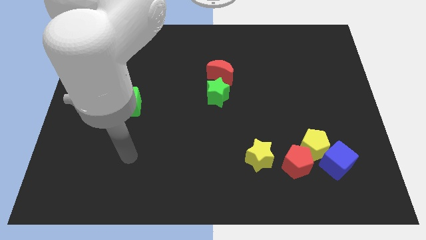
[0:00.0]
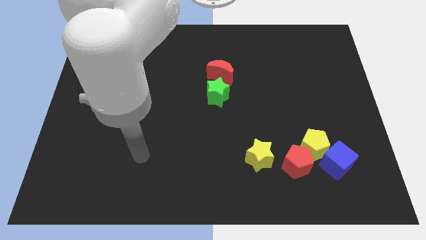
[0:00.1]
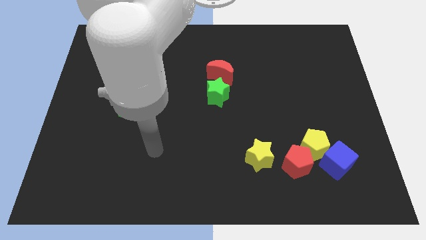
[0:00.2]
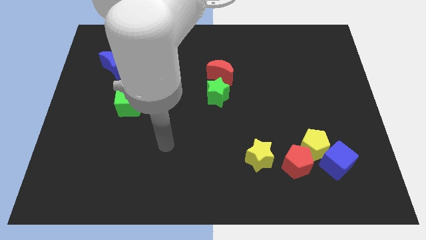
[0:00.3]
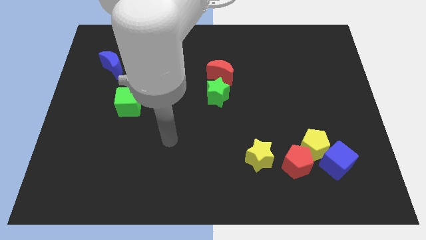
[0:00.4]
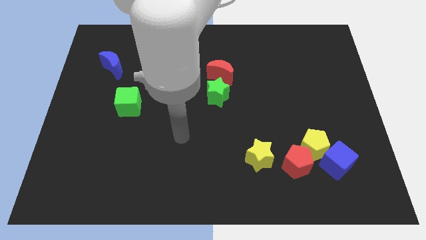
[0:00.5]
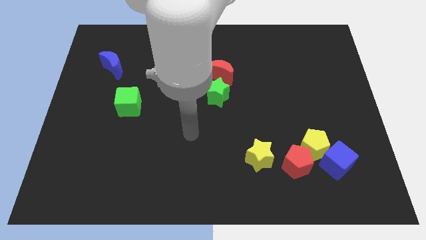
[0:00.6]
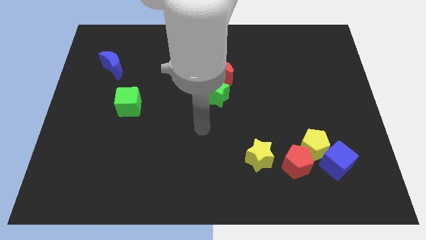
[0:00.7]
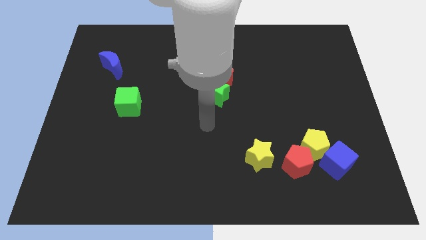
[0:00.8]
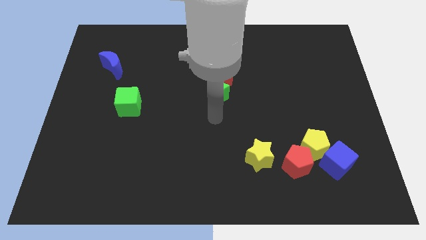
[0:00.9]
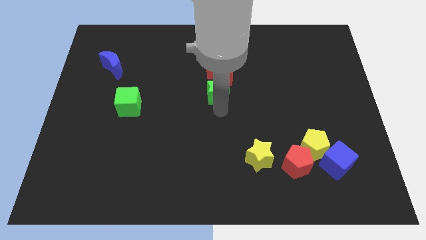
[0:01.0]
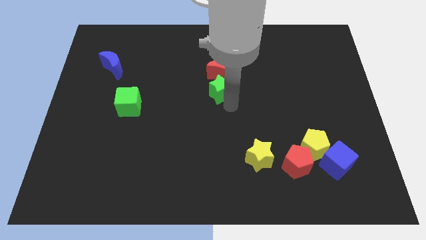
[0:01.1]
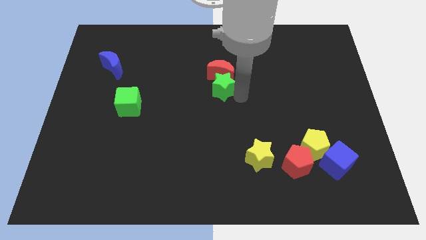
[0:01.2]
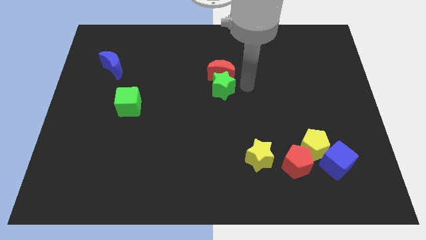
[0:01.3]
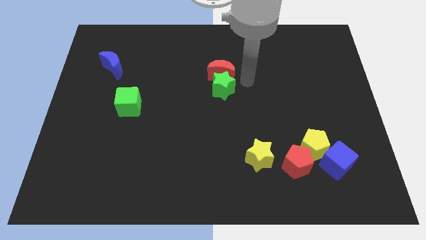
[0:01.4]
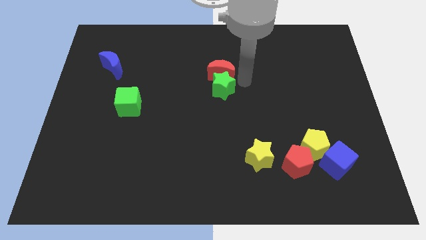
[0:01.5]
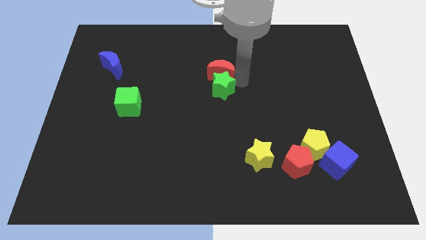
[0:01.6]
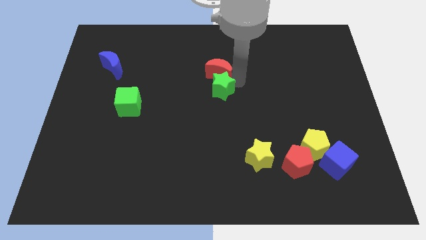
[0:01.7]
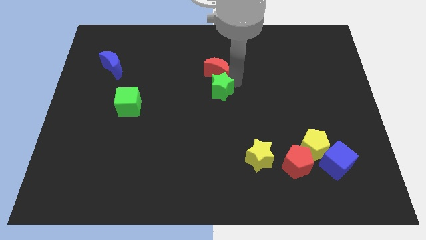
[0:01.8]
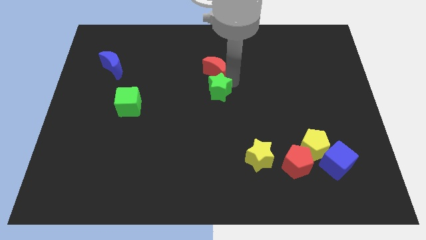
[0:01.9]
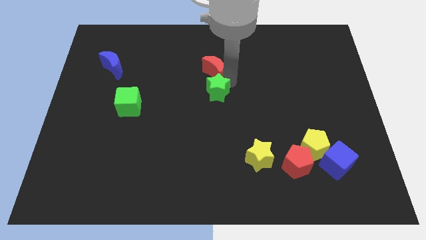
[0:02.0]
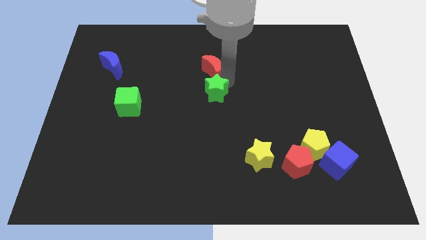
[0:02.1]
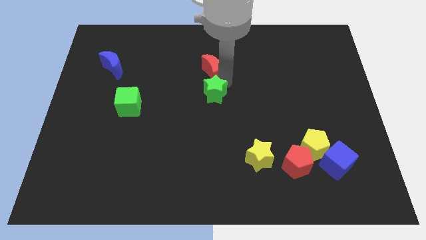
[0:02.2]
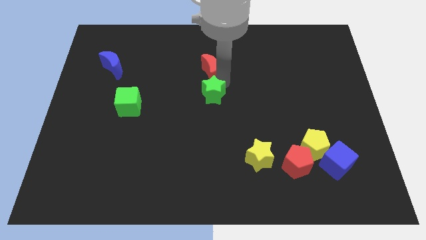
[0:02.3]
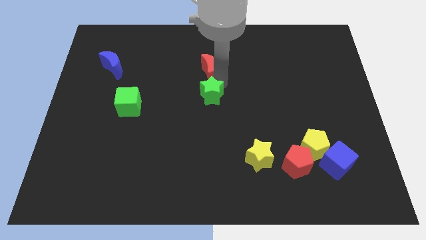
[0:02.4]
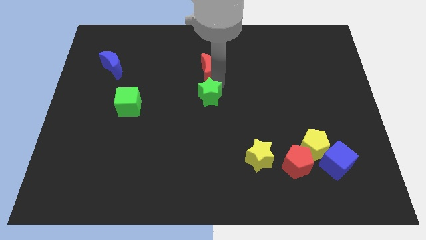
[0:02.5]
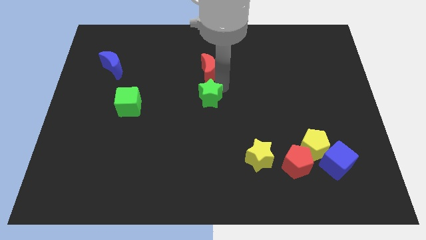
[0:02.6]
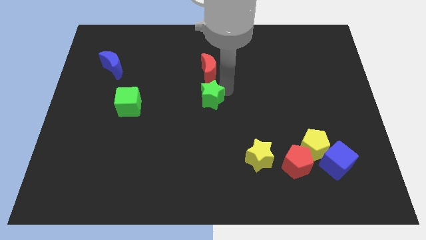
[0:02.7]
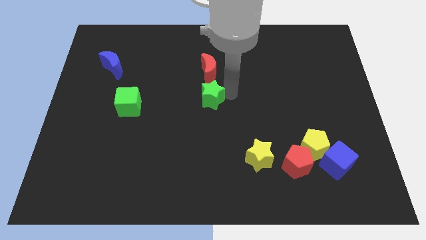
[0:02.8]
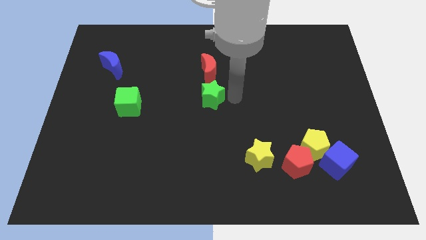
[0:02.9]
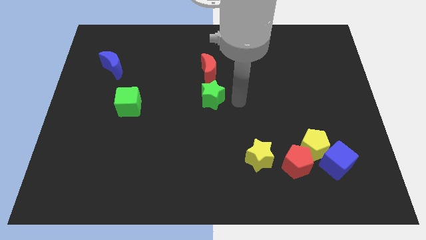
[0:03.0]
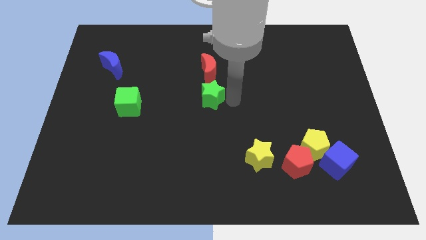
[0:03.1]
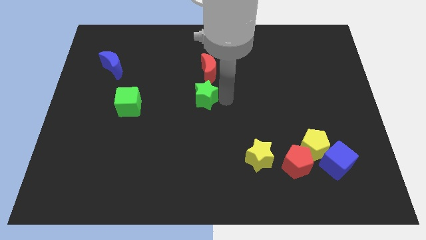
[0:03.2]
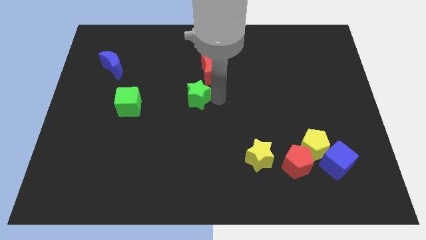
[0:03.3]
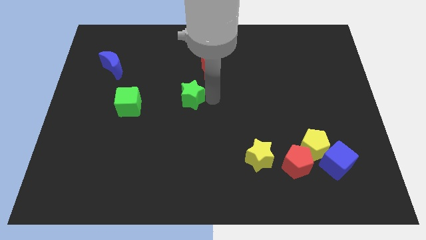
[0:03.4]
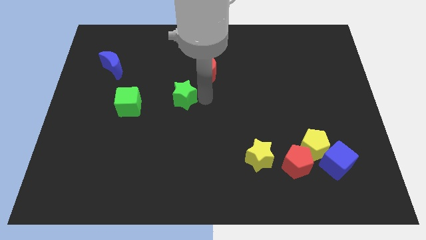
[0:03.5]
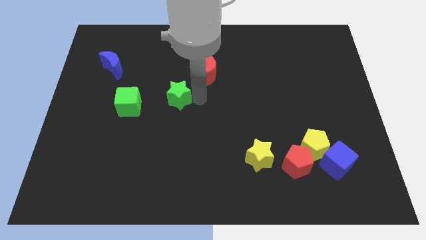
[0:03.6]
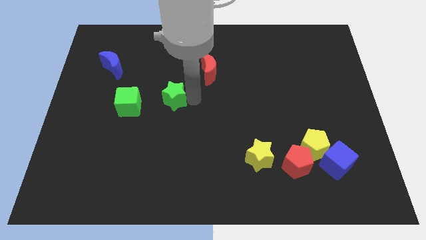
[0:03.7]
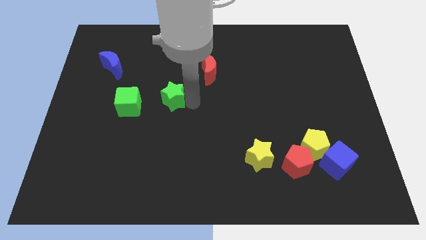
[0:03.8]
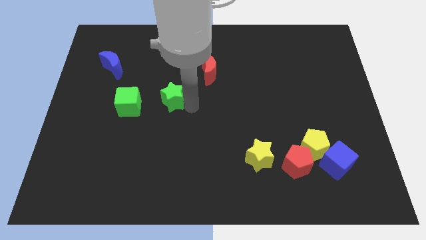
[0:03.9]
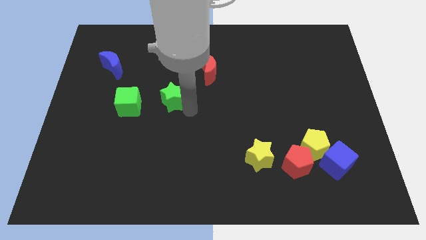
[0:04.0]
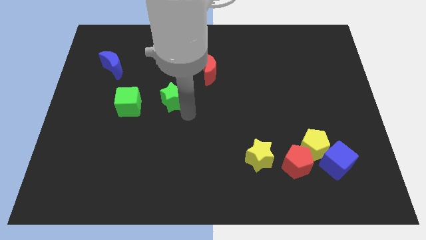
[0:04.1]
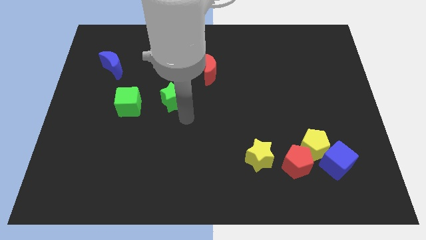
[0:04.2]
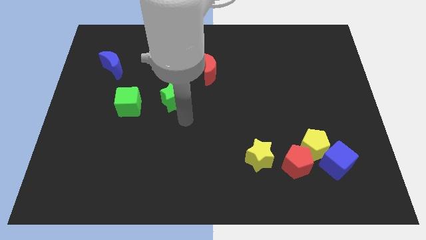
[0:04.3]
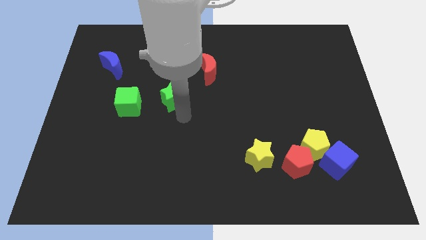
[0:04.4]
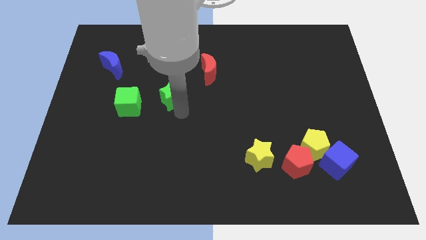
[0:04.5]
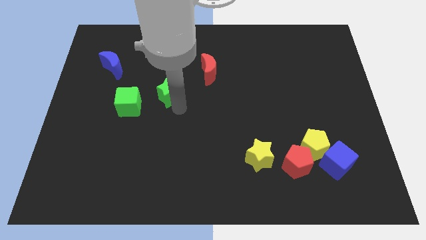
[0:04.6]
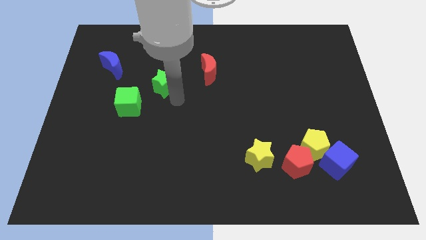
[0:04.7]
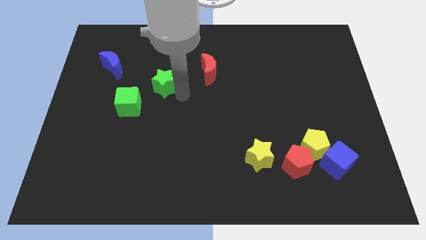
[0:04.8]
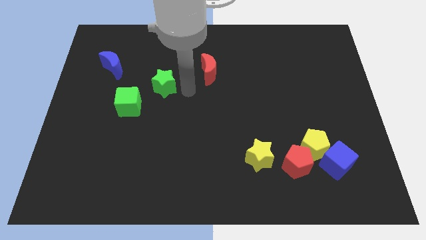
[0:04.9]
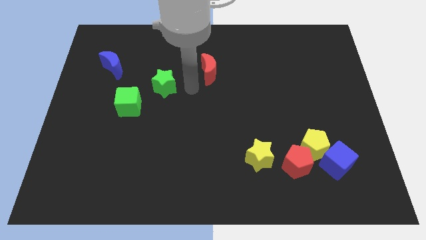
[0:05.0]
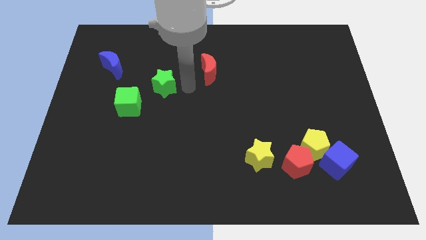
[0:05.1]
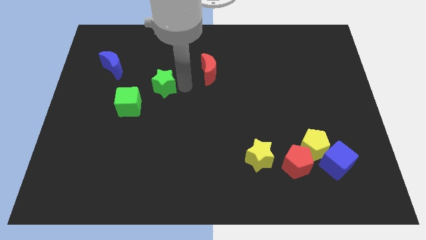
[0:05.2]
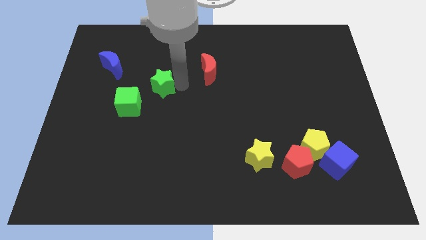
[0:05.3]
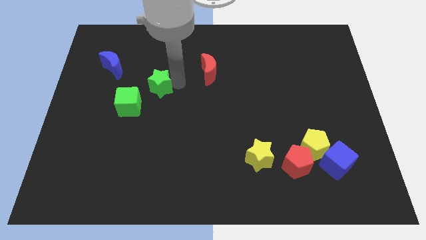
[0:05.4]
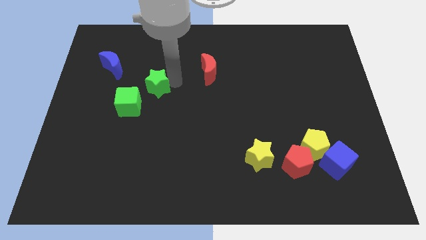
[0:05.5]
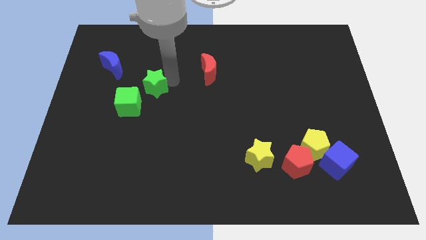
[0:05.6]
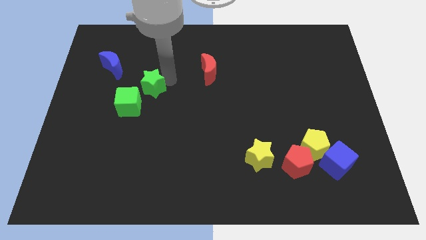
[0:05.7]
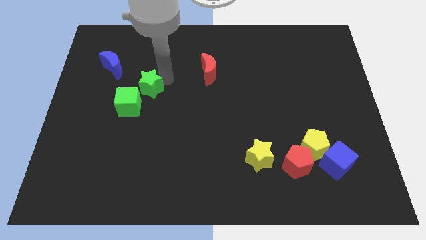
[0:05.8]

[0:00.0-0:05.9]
push the green star to the bottom right of the blue moon
